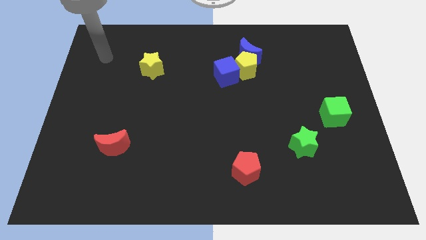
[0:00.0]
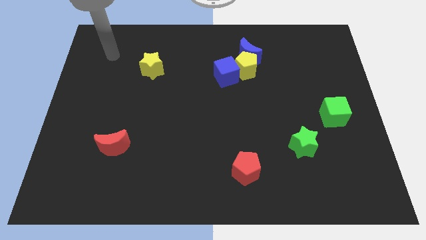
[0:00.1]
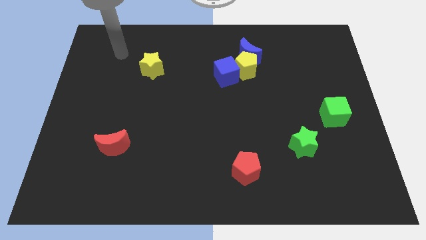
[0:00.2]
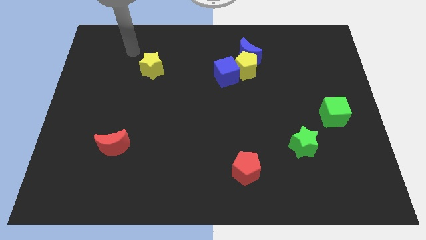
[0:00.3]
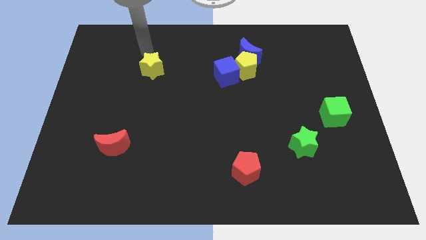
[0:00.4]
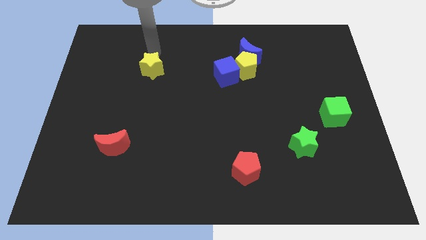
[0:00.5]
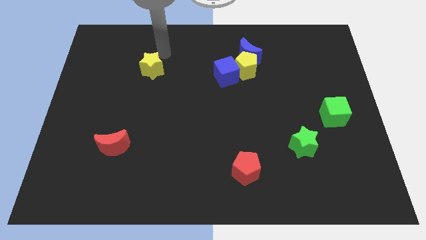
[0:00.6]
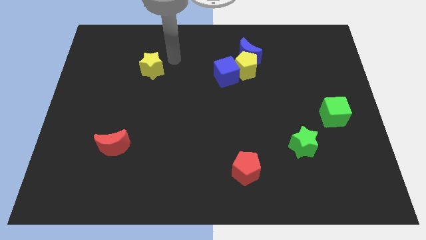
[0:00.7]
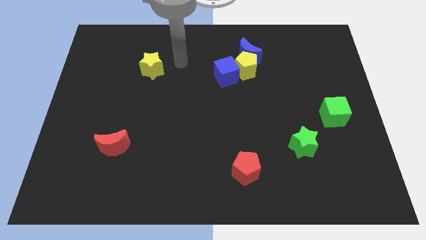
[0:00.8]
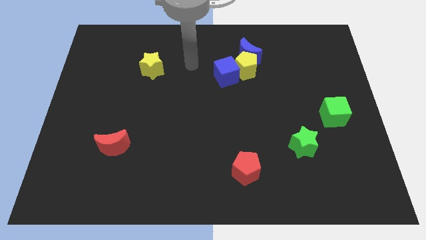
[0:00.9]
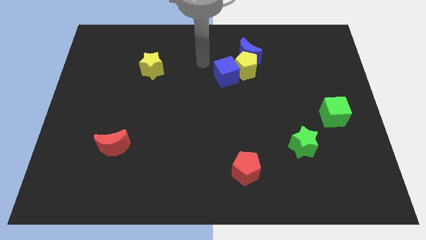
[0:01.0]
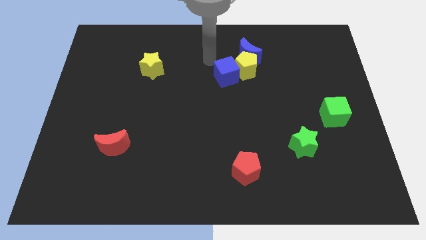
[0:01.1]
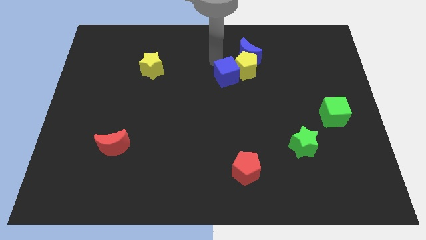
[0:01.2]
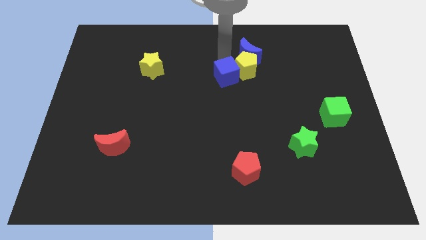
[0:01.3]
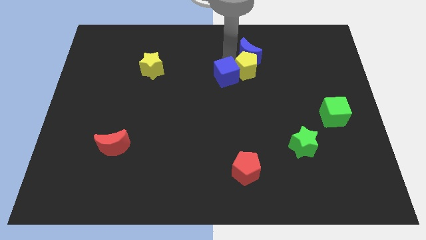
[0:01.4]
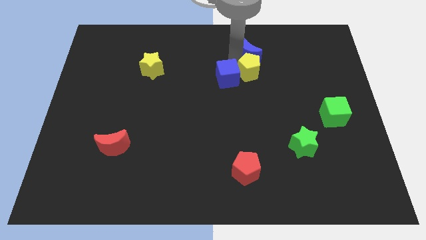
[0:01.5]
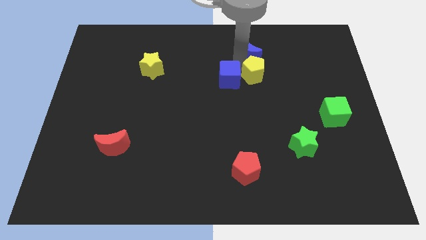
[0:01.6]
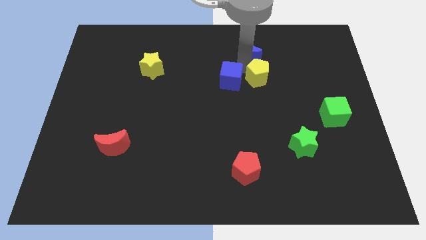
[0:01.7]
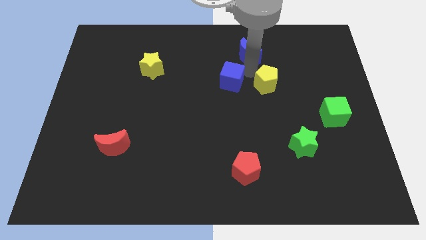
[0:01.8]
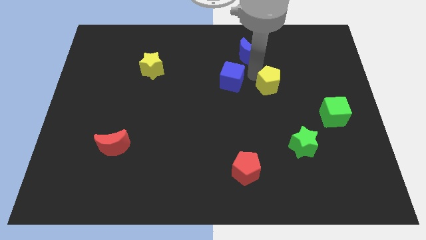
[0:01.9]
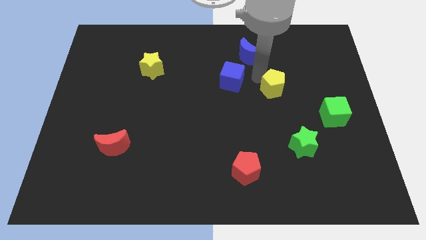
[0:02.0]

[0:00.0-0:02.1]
separate the yellow pentagon from the blue moon and blue cube

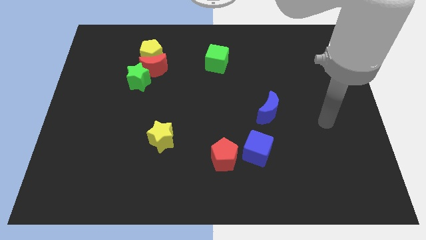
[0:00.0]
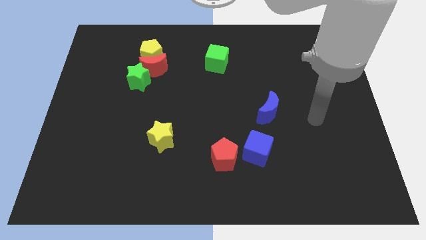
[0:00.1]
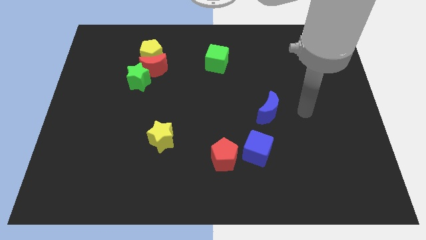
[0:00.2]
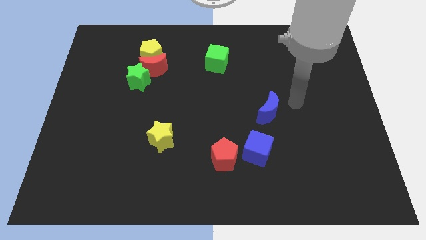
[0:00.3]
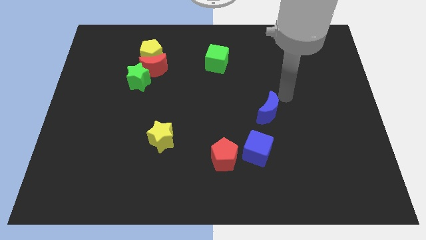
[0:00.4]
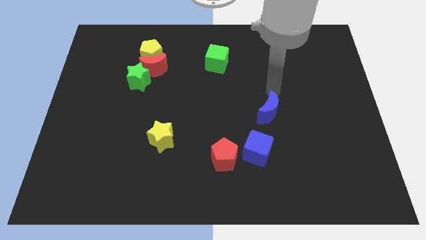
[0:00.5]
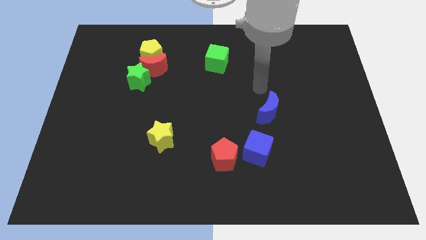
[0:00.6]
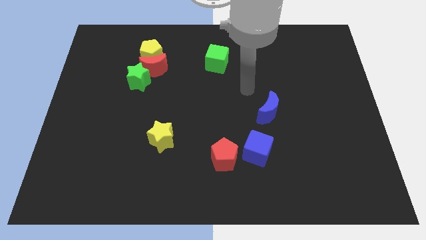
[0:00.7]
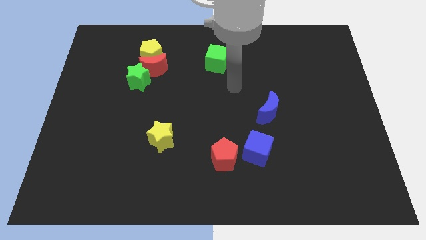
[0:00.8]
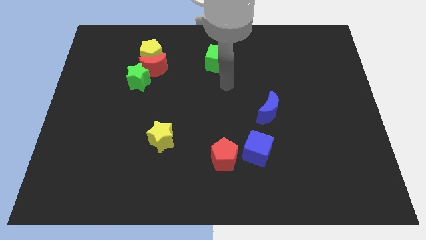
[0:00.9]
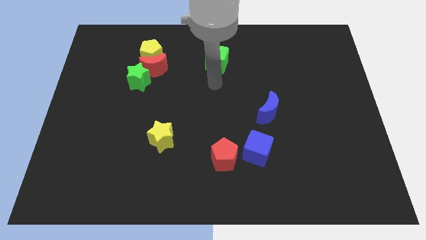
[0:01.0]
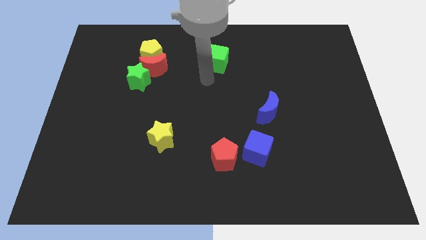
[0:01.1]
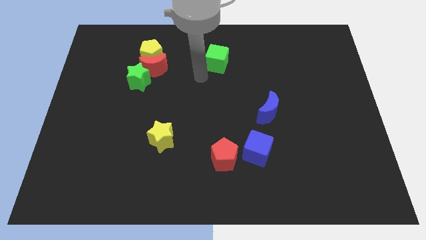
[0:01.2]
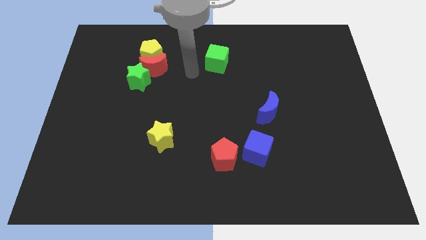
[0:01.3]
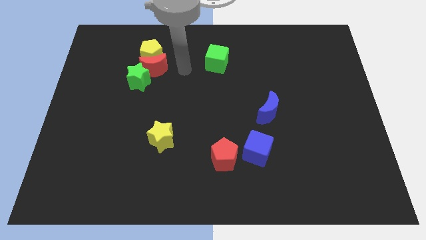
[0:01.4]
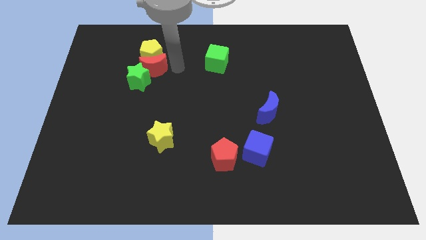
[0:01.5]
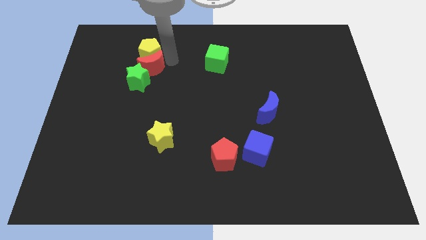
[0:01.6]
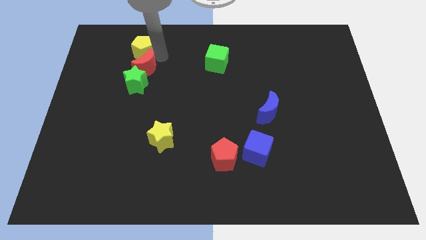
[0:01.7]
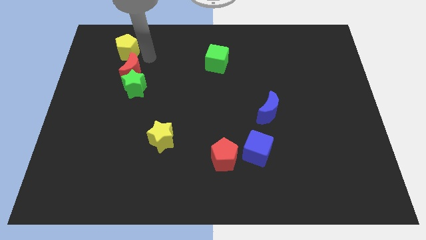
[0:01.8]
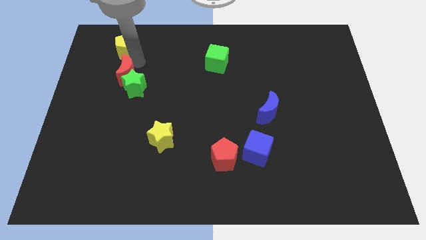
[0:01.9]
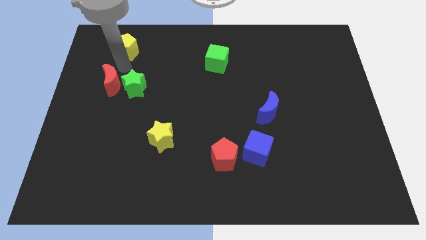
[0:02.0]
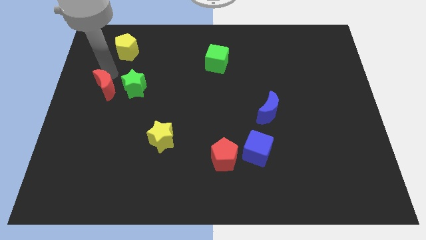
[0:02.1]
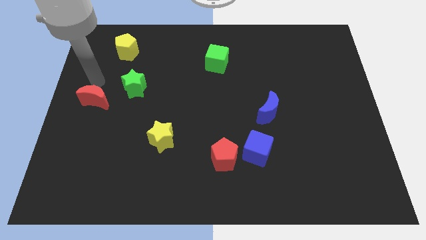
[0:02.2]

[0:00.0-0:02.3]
pull the red moon apart from the yellow pentagon and green star

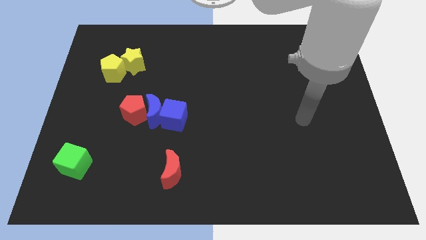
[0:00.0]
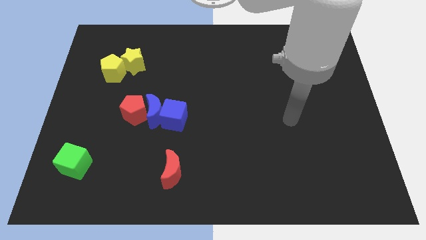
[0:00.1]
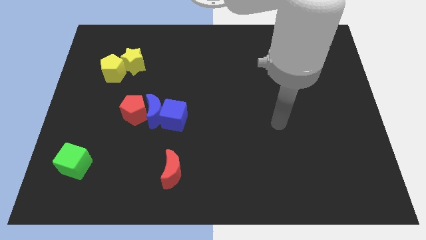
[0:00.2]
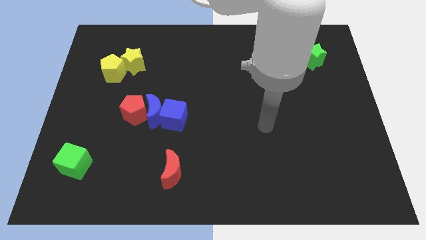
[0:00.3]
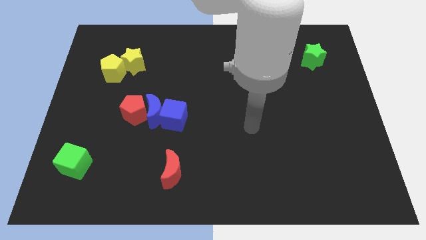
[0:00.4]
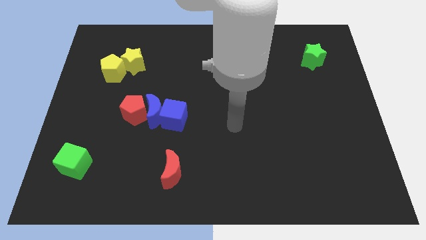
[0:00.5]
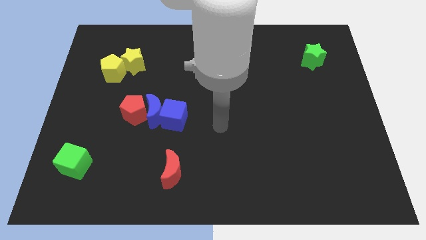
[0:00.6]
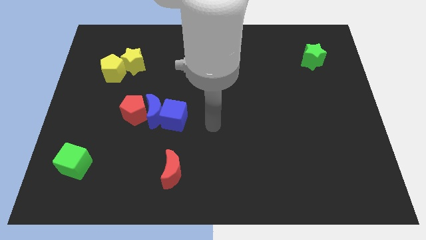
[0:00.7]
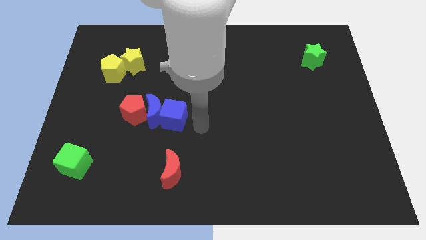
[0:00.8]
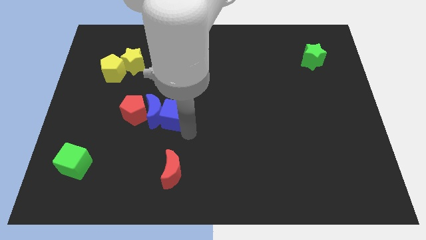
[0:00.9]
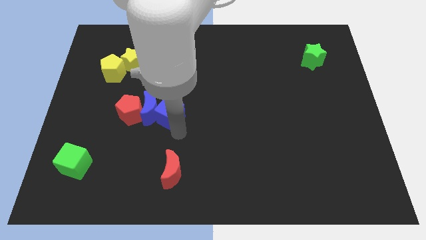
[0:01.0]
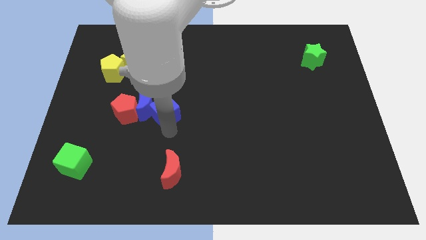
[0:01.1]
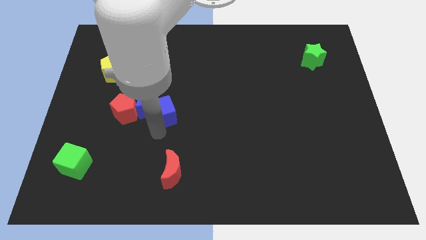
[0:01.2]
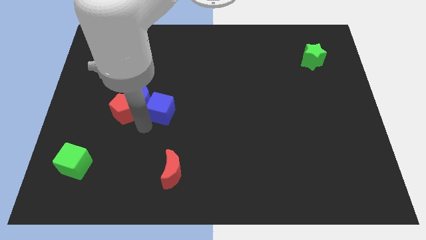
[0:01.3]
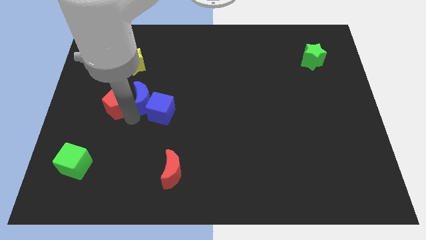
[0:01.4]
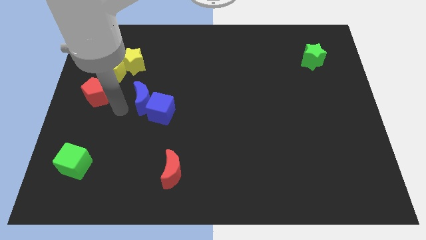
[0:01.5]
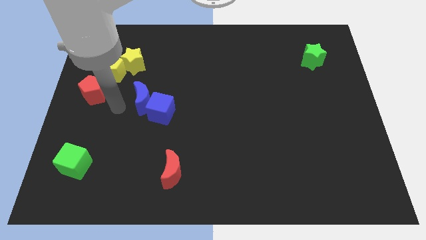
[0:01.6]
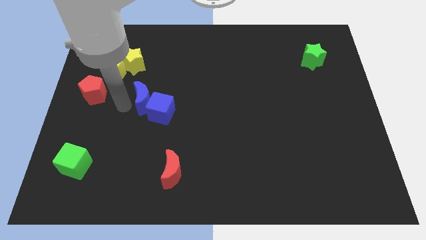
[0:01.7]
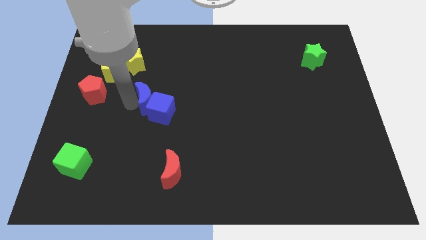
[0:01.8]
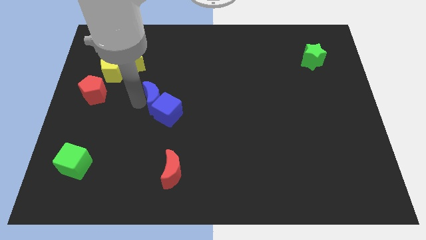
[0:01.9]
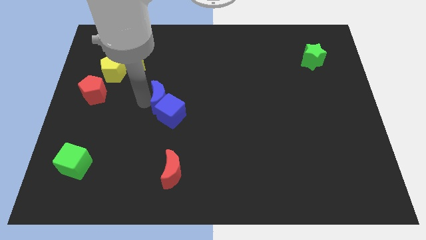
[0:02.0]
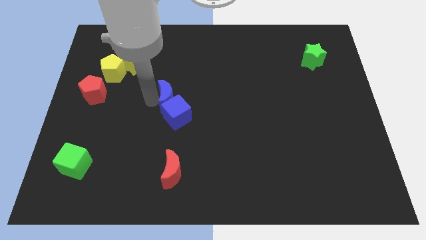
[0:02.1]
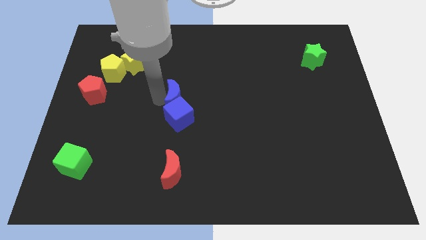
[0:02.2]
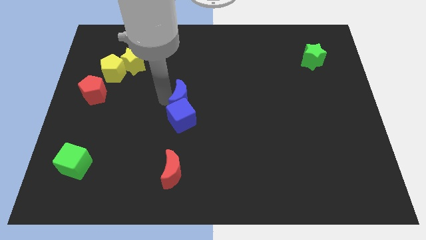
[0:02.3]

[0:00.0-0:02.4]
move the blue moon away from the blue cube and red pentagon

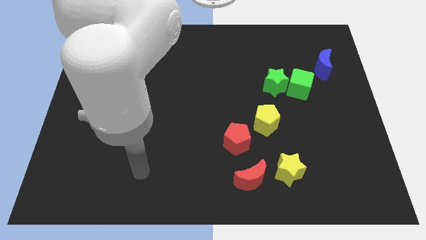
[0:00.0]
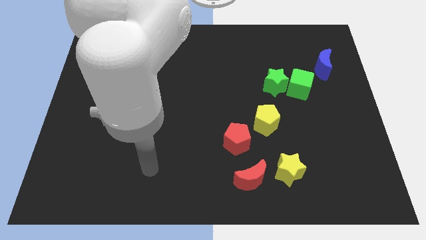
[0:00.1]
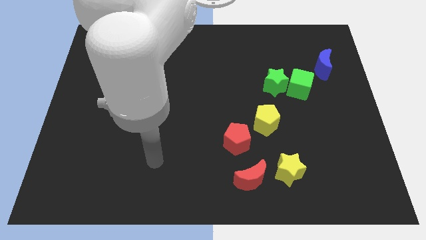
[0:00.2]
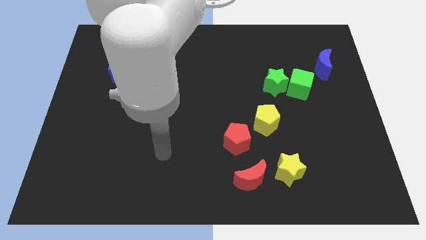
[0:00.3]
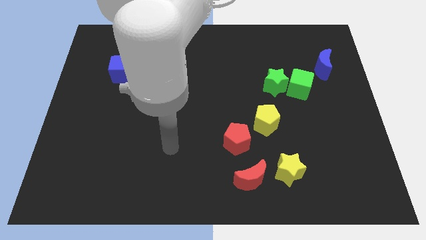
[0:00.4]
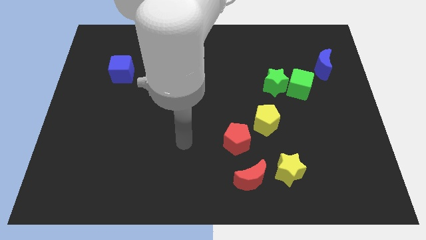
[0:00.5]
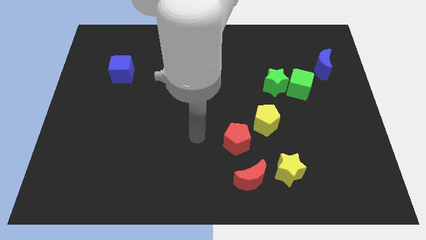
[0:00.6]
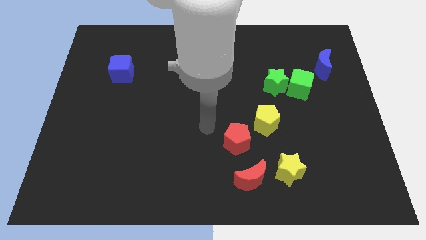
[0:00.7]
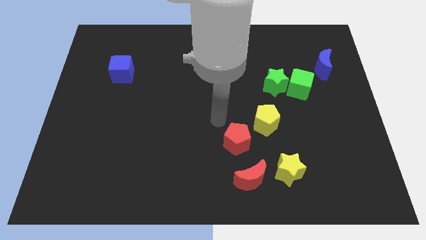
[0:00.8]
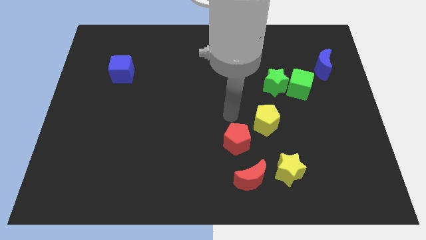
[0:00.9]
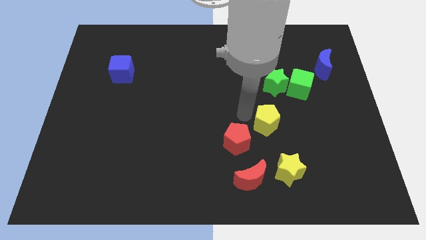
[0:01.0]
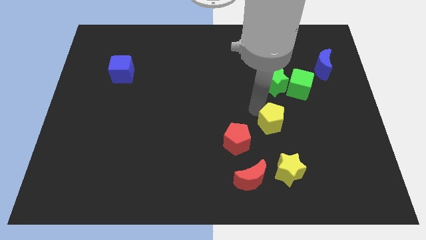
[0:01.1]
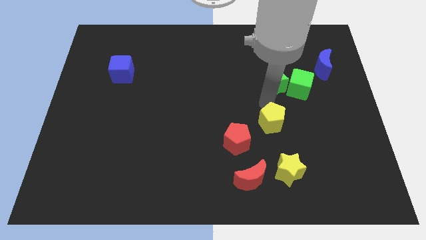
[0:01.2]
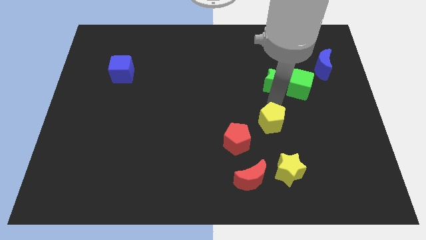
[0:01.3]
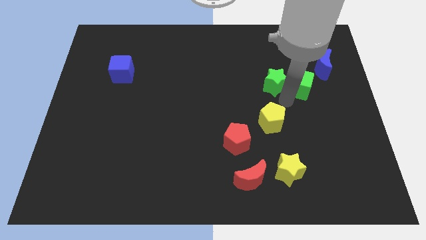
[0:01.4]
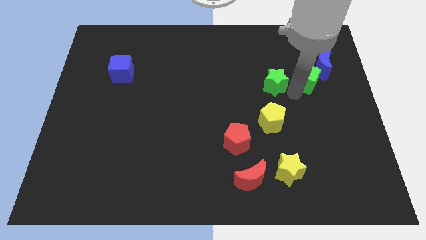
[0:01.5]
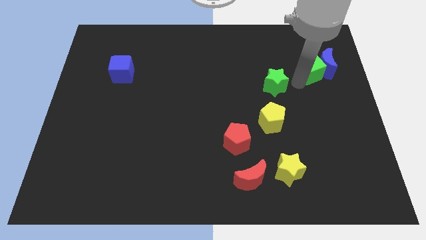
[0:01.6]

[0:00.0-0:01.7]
pull the green star apart from the green cube

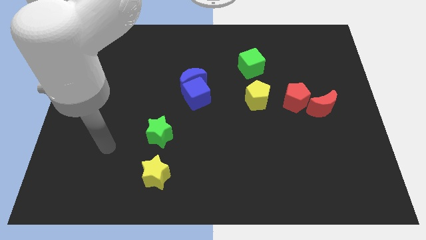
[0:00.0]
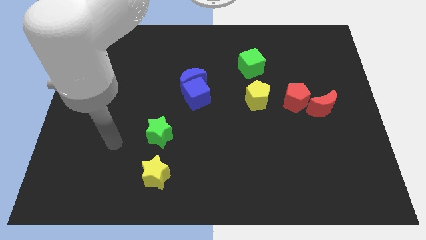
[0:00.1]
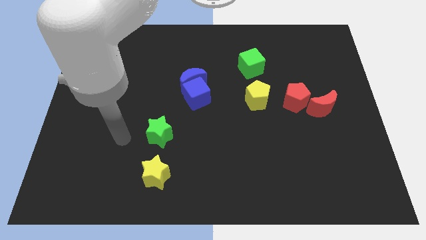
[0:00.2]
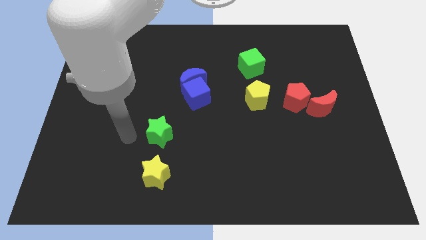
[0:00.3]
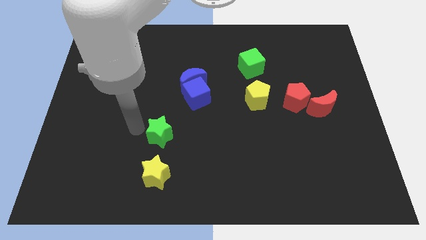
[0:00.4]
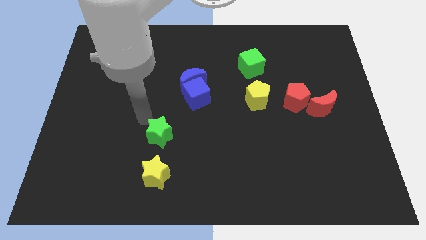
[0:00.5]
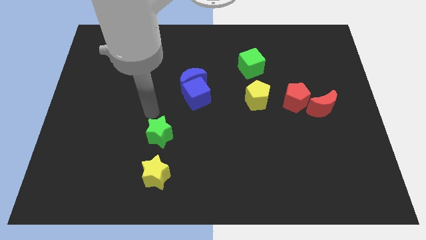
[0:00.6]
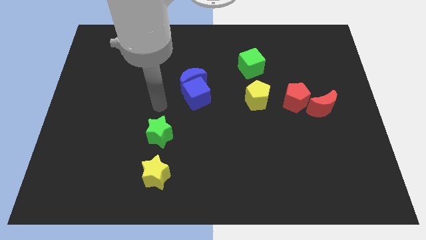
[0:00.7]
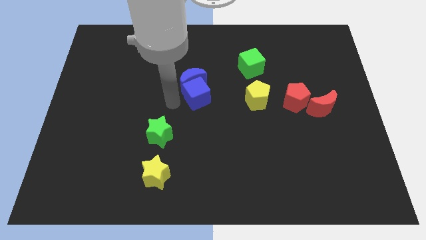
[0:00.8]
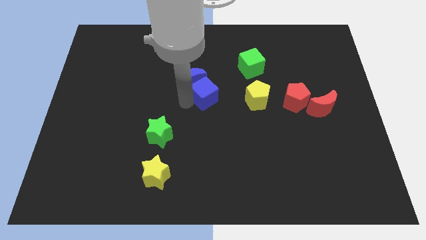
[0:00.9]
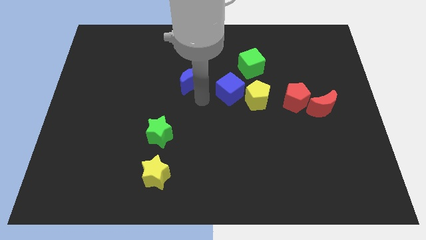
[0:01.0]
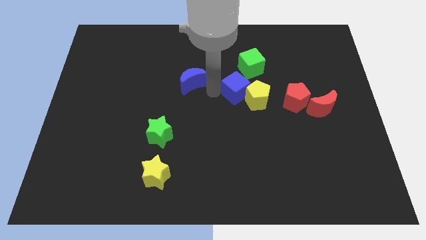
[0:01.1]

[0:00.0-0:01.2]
move the blue moon away from the blue cube
